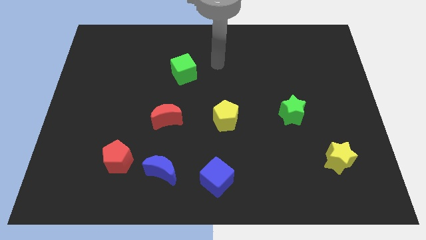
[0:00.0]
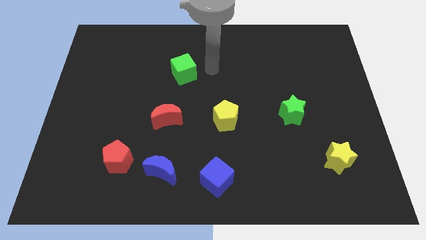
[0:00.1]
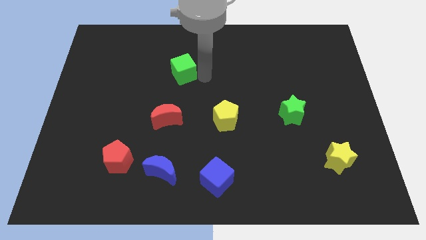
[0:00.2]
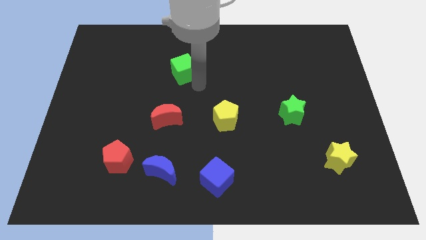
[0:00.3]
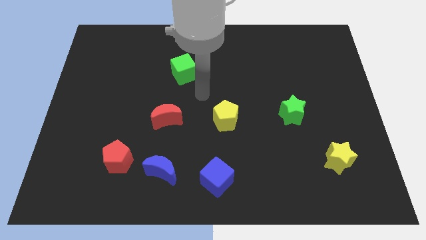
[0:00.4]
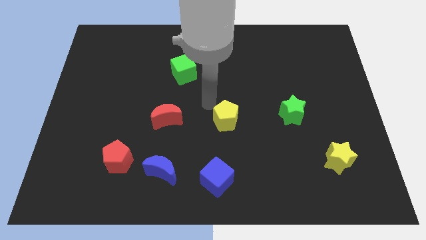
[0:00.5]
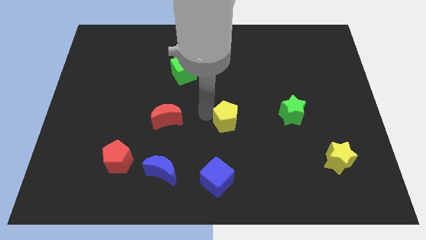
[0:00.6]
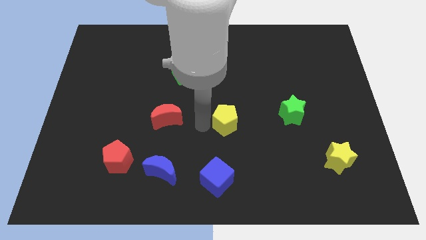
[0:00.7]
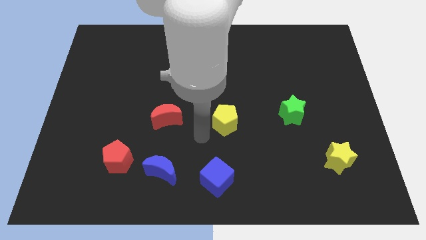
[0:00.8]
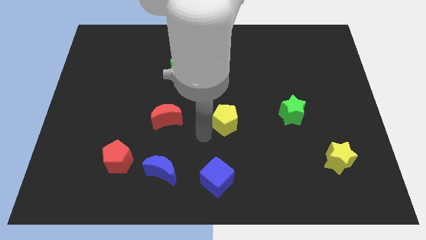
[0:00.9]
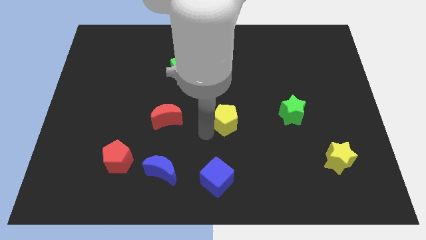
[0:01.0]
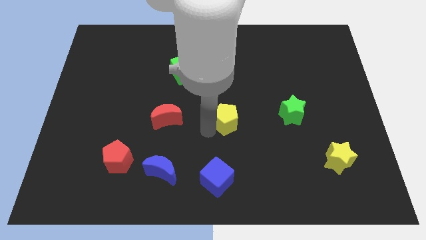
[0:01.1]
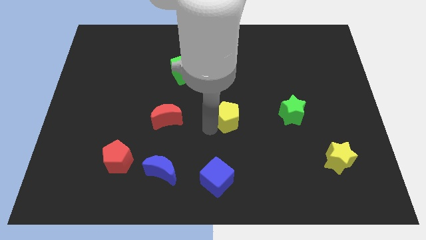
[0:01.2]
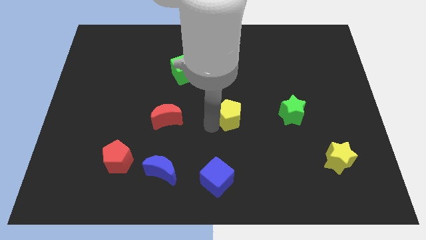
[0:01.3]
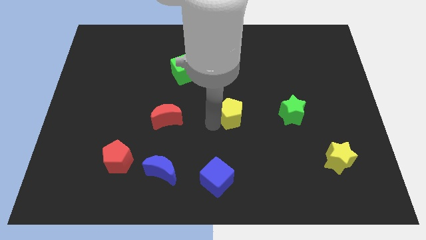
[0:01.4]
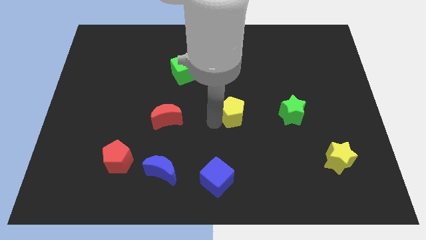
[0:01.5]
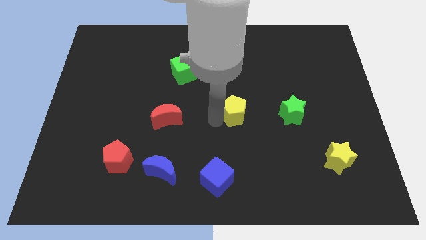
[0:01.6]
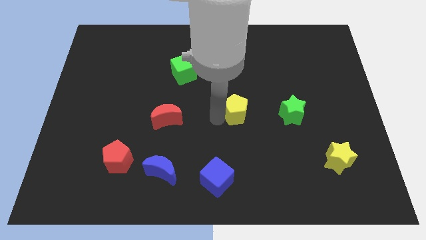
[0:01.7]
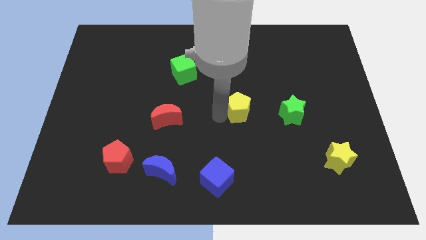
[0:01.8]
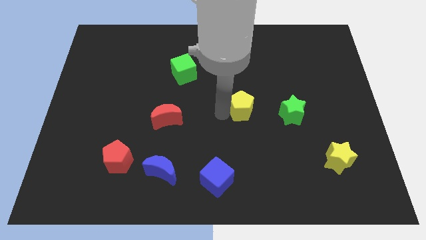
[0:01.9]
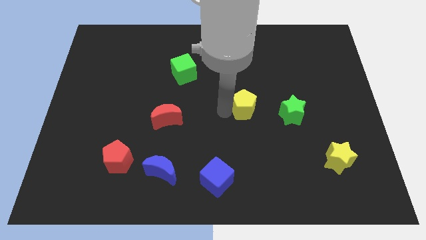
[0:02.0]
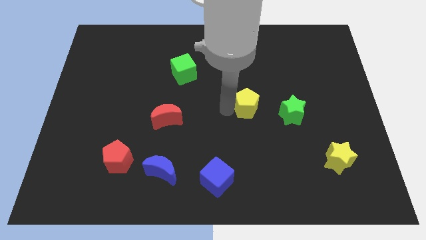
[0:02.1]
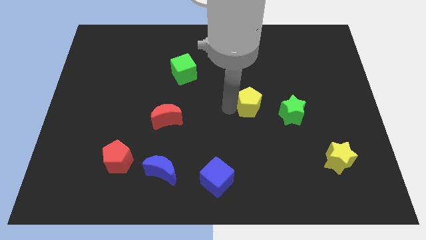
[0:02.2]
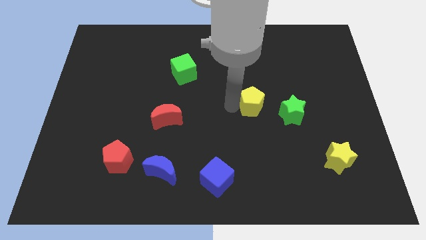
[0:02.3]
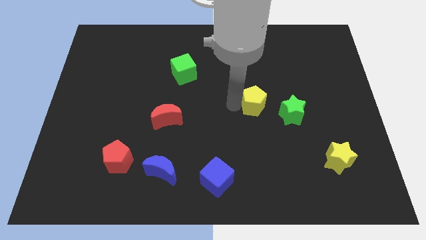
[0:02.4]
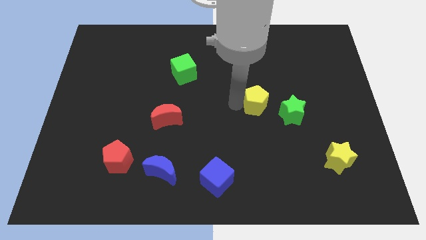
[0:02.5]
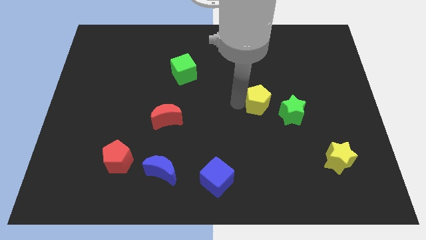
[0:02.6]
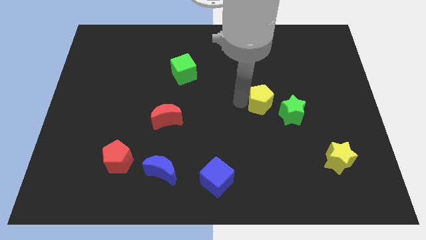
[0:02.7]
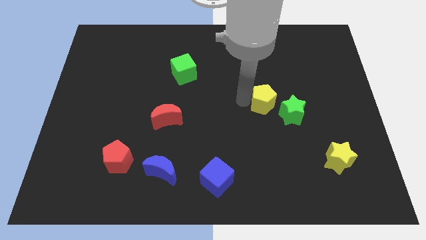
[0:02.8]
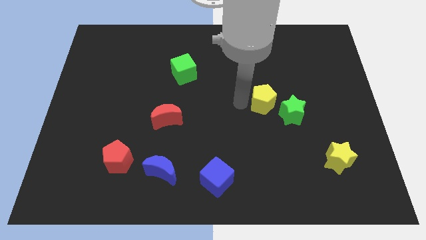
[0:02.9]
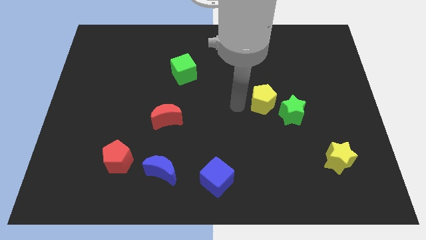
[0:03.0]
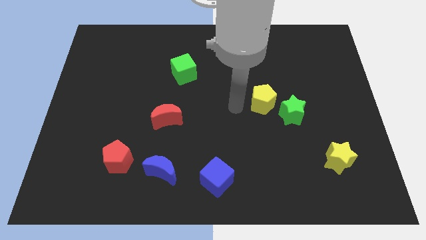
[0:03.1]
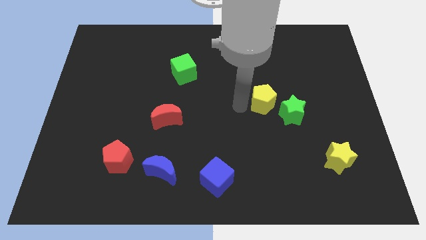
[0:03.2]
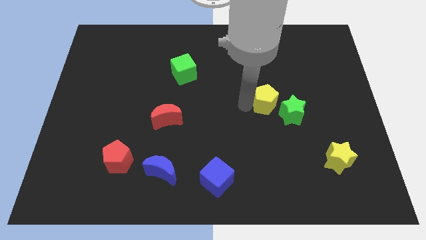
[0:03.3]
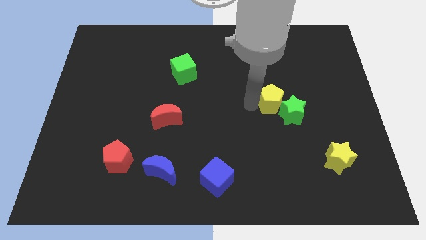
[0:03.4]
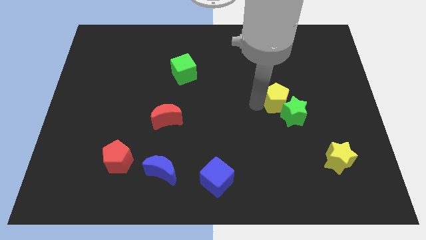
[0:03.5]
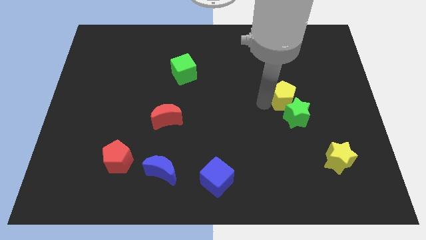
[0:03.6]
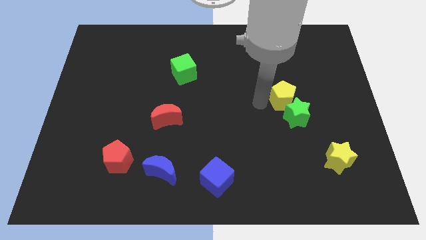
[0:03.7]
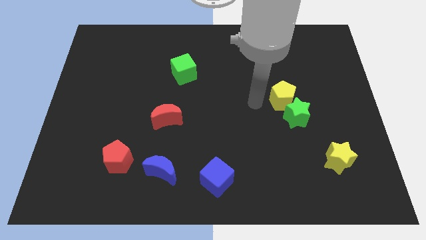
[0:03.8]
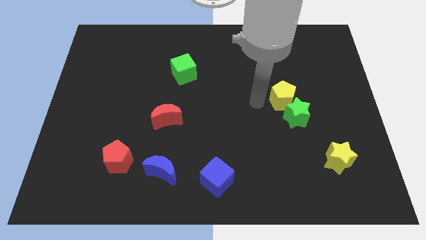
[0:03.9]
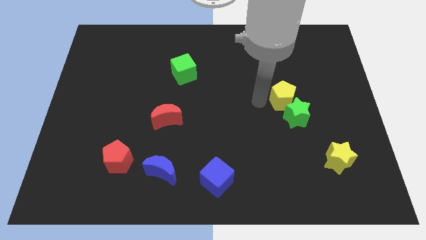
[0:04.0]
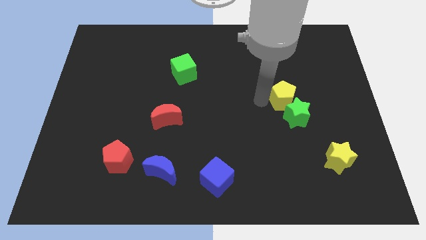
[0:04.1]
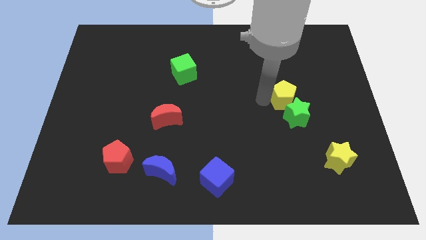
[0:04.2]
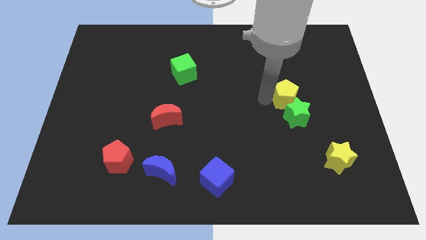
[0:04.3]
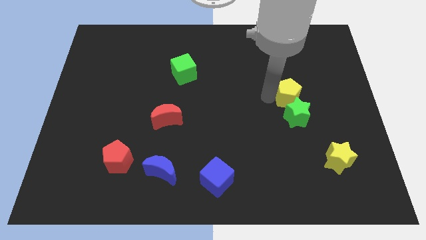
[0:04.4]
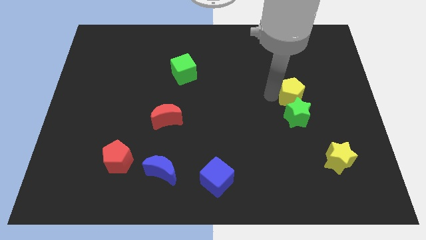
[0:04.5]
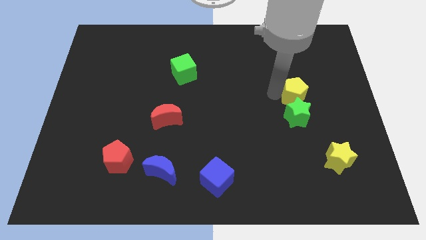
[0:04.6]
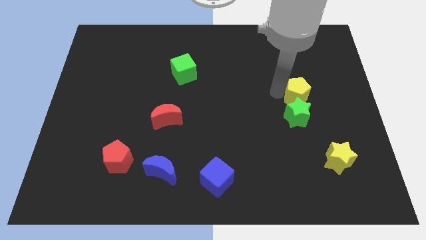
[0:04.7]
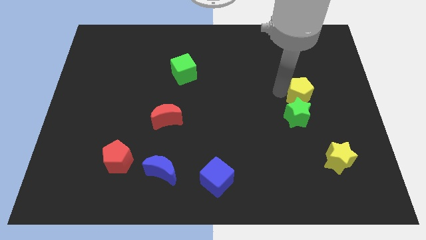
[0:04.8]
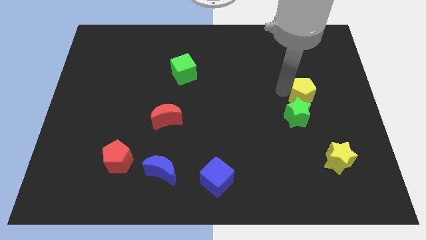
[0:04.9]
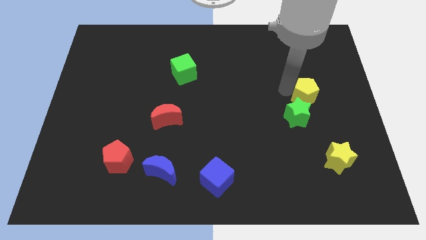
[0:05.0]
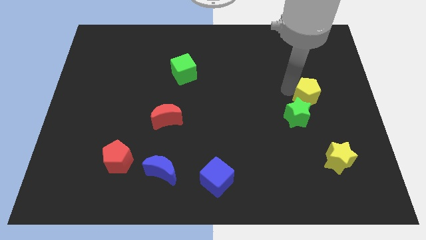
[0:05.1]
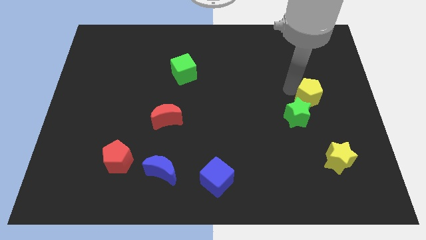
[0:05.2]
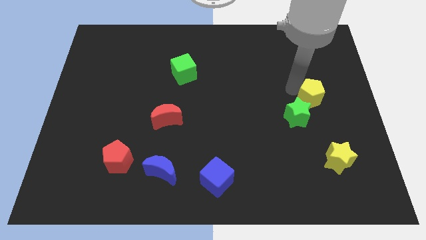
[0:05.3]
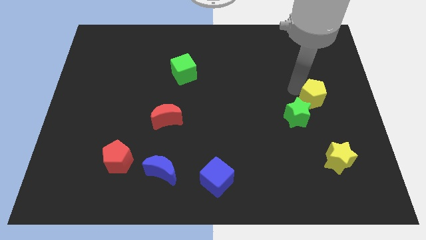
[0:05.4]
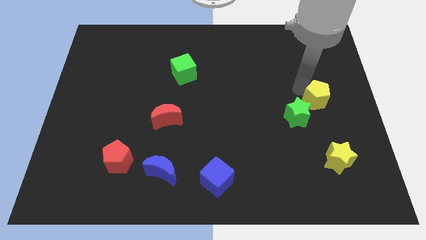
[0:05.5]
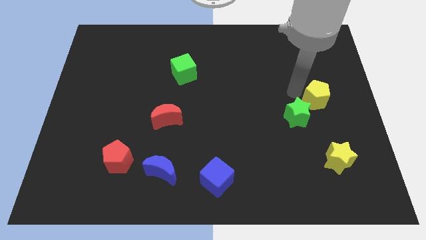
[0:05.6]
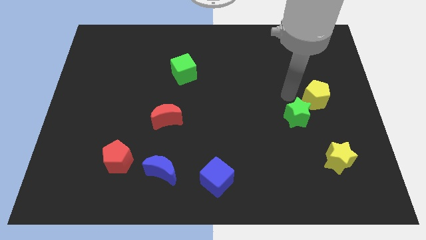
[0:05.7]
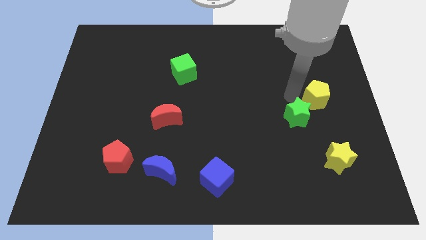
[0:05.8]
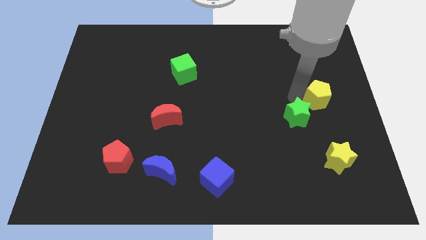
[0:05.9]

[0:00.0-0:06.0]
slide the yellow pentagon to the right side

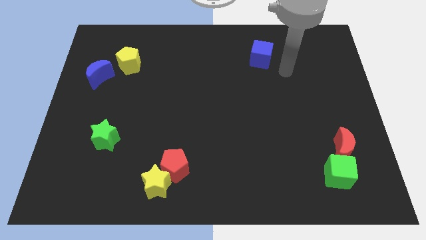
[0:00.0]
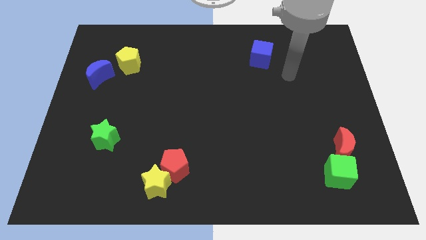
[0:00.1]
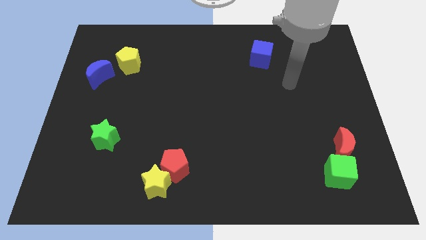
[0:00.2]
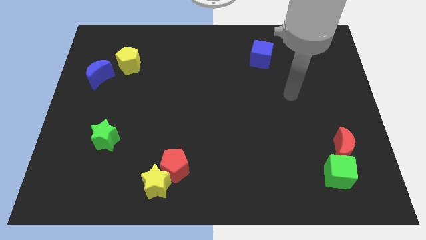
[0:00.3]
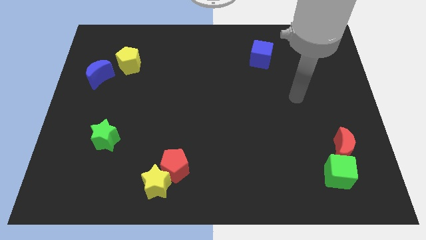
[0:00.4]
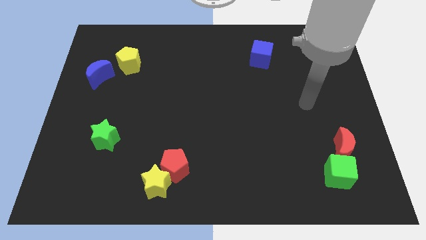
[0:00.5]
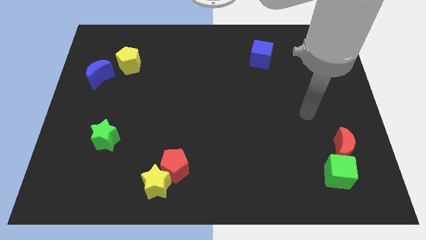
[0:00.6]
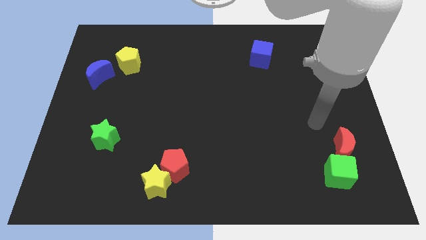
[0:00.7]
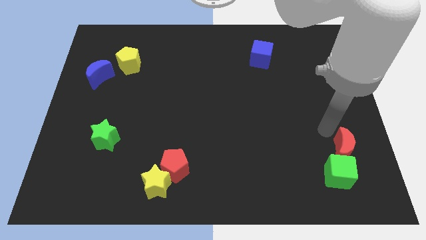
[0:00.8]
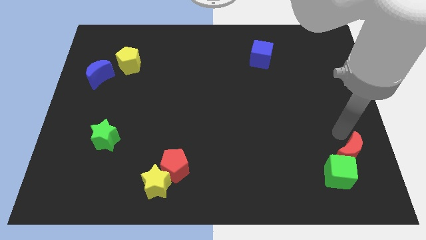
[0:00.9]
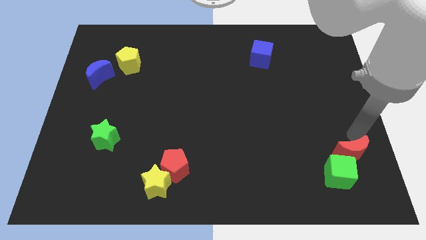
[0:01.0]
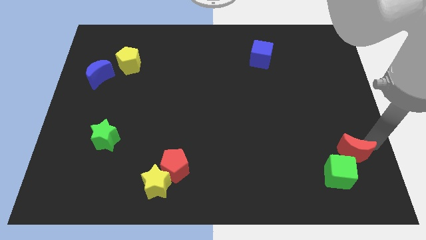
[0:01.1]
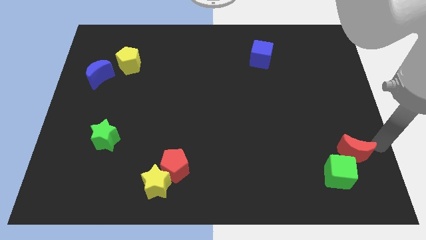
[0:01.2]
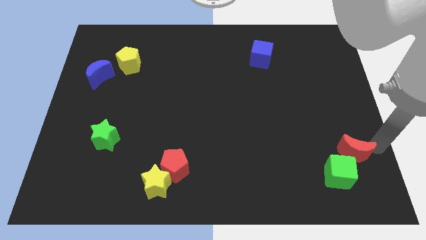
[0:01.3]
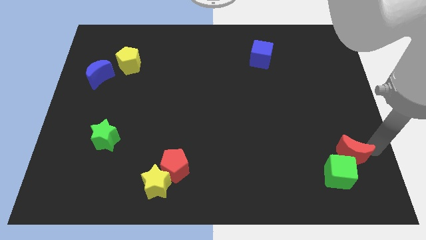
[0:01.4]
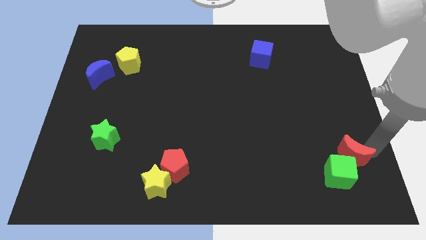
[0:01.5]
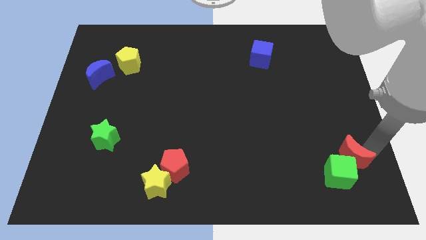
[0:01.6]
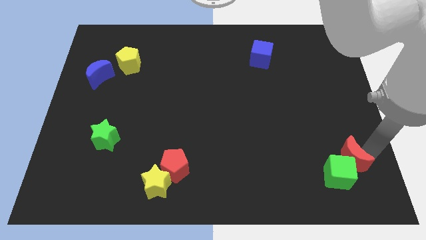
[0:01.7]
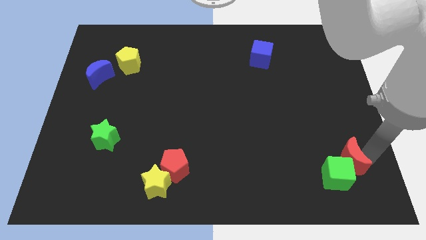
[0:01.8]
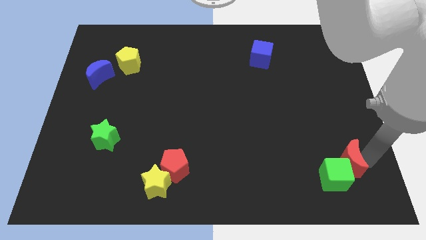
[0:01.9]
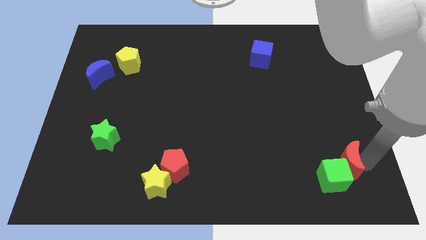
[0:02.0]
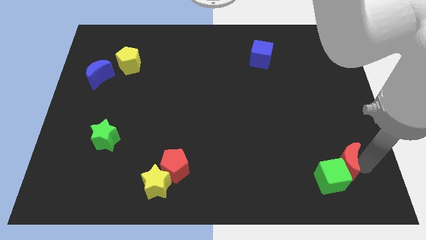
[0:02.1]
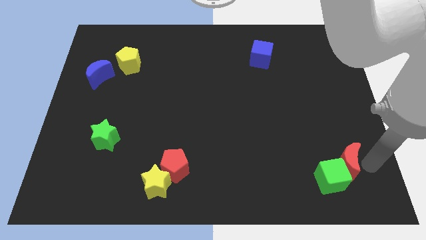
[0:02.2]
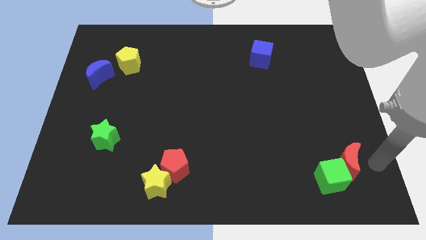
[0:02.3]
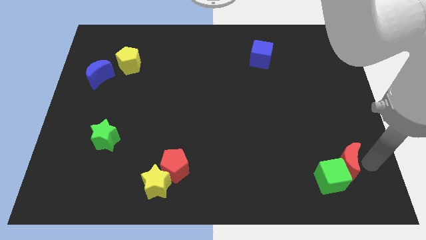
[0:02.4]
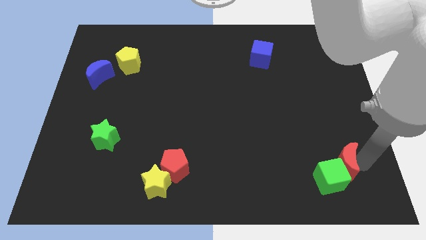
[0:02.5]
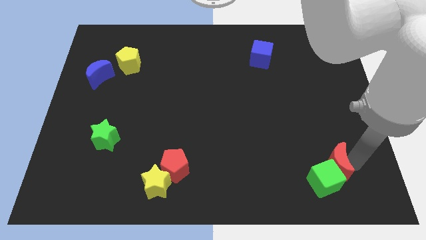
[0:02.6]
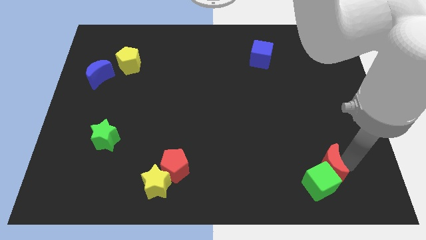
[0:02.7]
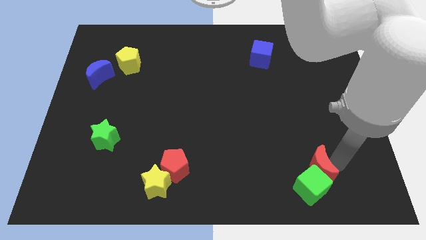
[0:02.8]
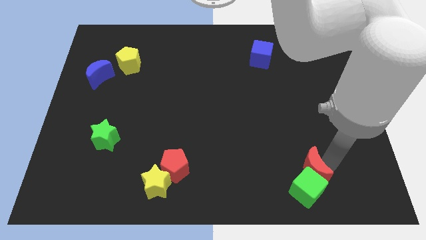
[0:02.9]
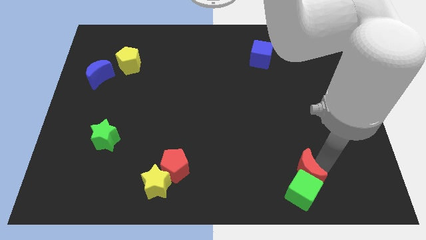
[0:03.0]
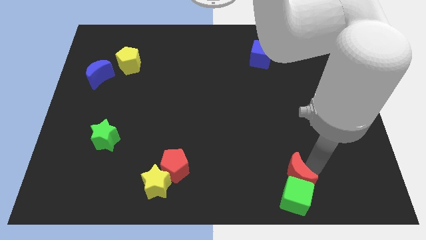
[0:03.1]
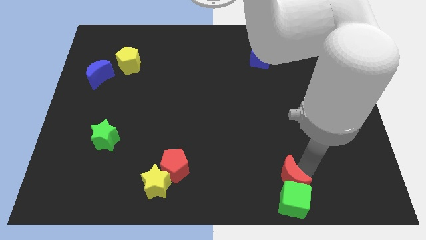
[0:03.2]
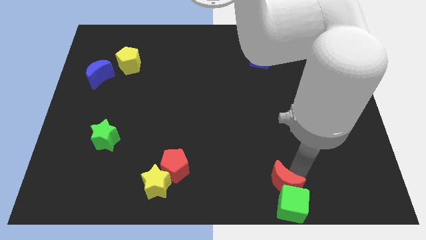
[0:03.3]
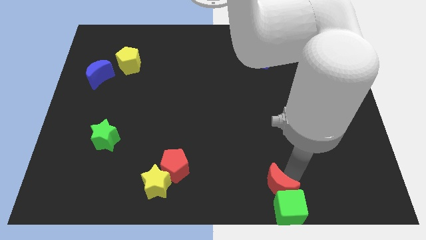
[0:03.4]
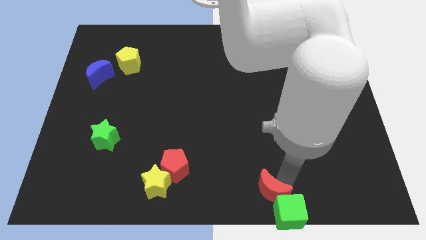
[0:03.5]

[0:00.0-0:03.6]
put the red moon to the bottom
